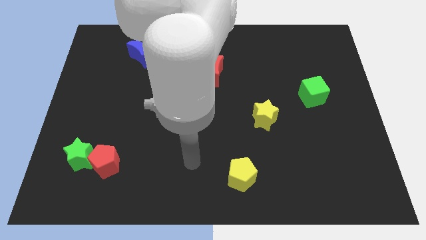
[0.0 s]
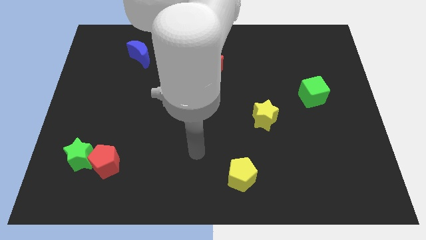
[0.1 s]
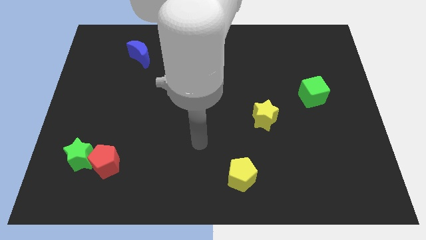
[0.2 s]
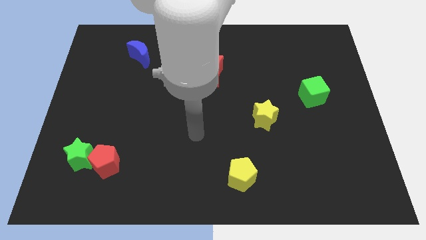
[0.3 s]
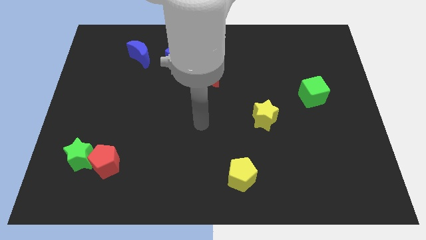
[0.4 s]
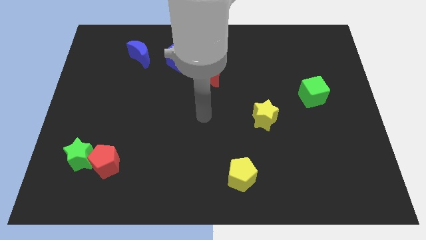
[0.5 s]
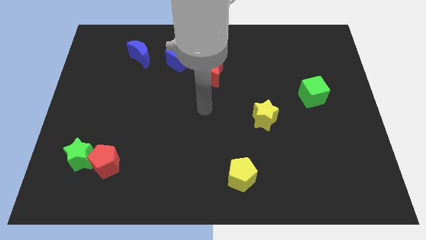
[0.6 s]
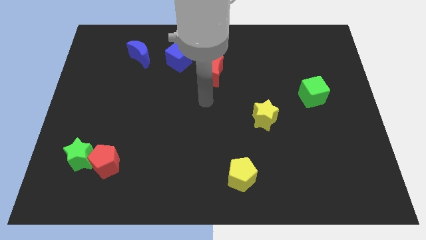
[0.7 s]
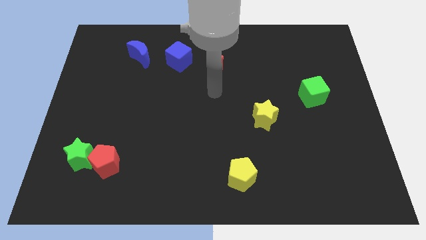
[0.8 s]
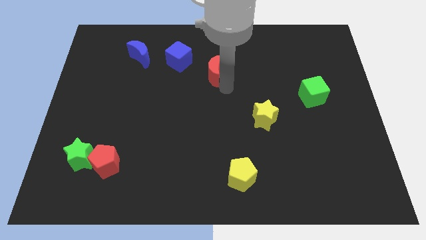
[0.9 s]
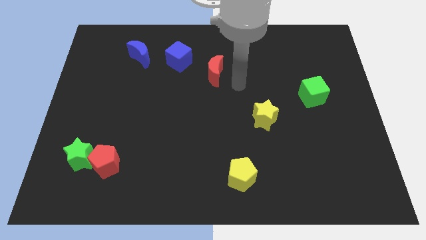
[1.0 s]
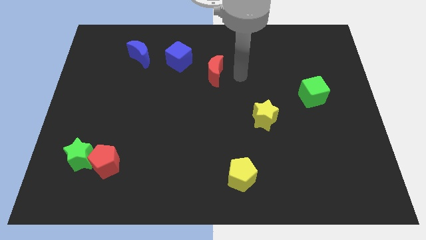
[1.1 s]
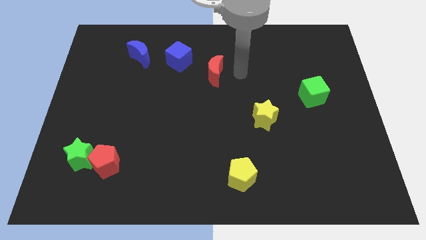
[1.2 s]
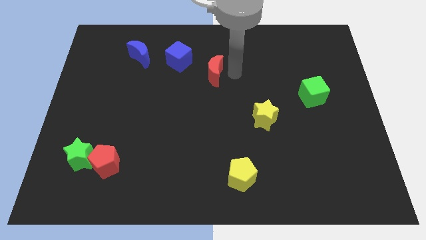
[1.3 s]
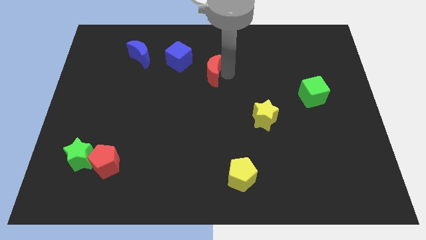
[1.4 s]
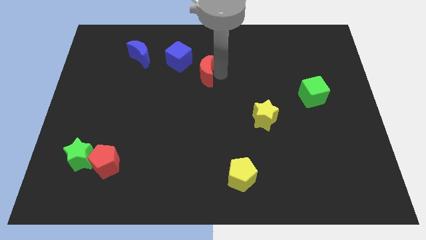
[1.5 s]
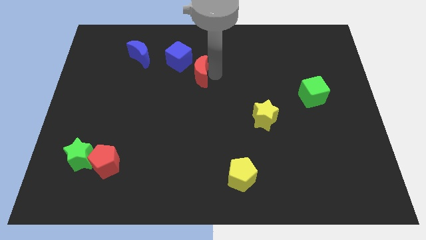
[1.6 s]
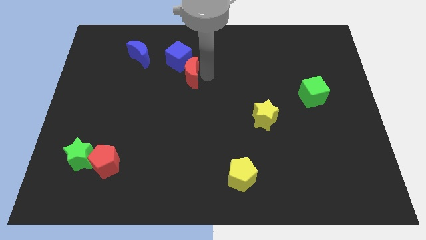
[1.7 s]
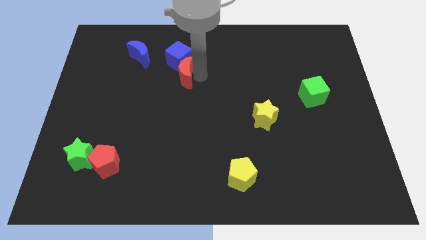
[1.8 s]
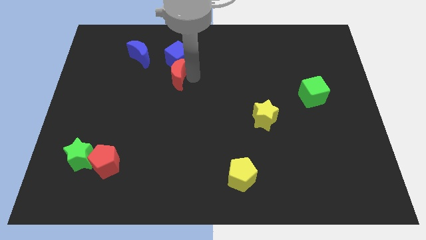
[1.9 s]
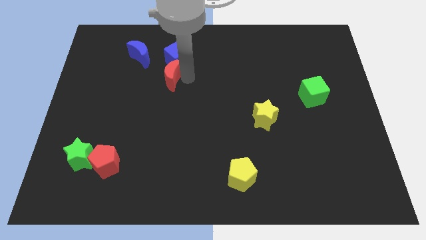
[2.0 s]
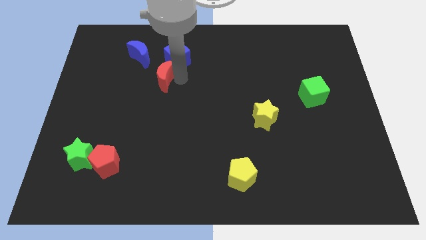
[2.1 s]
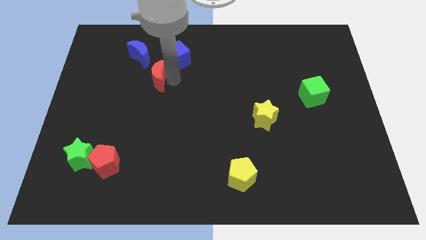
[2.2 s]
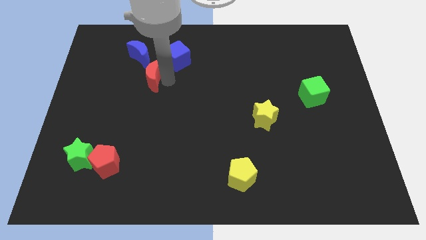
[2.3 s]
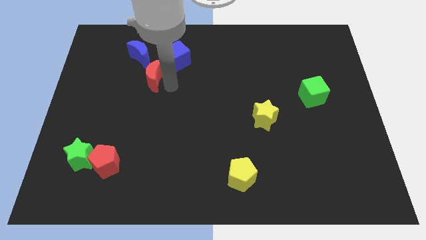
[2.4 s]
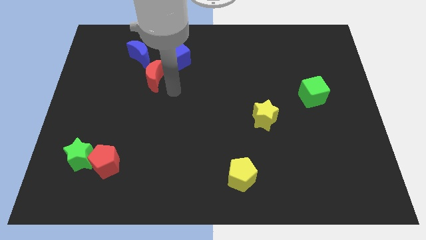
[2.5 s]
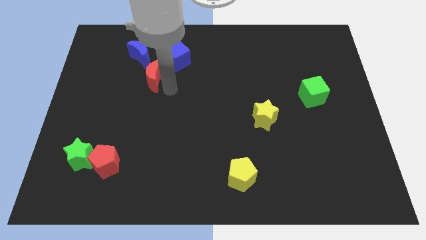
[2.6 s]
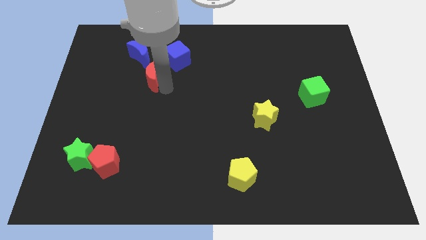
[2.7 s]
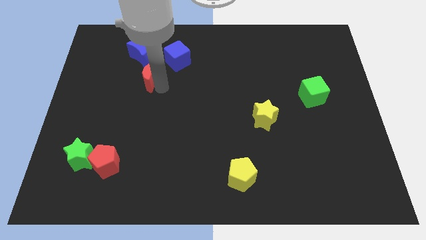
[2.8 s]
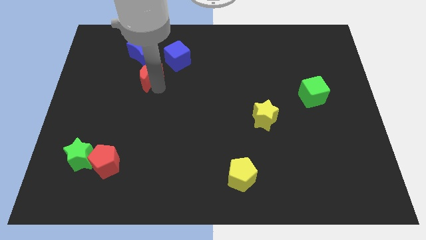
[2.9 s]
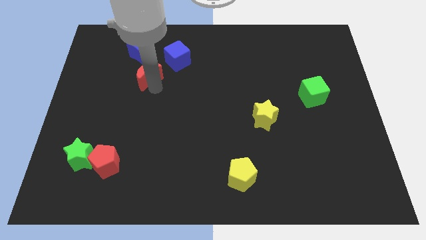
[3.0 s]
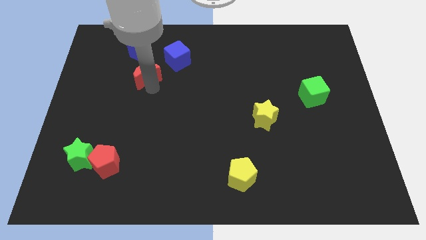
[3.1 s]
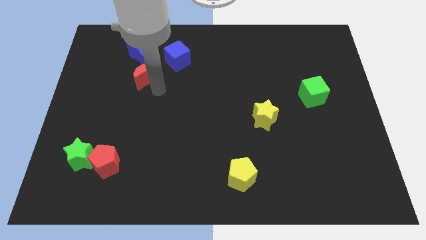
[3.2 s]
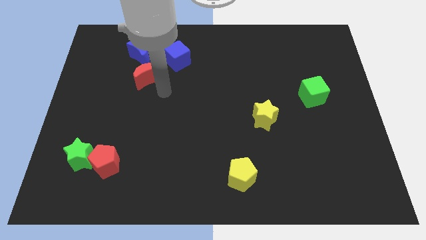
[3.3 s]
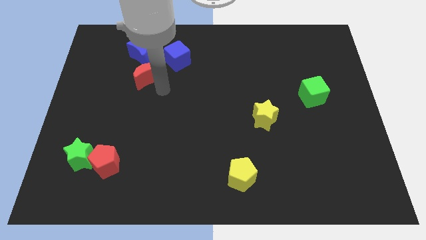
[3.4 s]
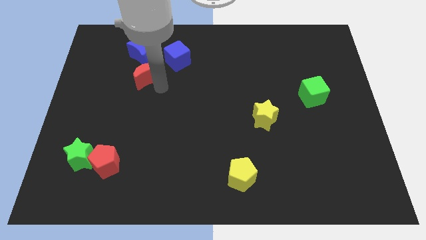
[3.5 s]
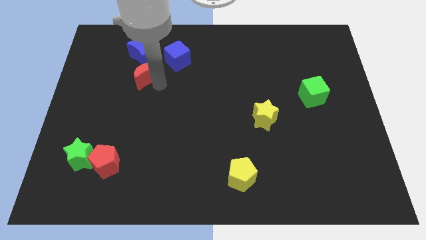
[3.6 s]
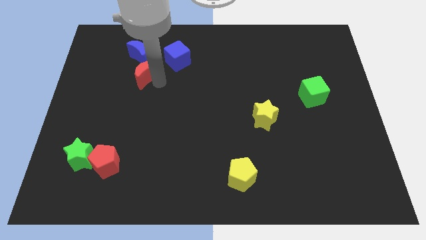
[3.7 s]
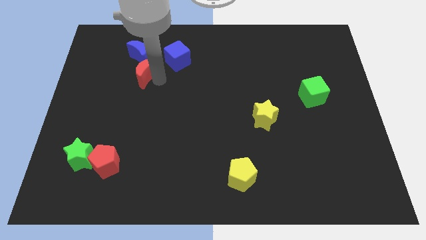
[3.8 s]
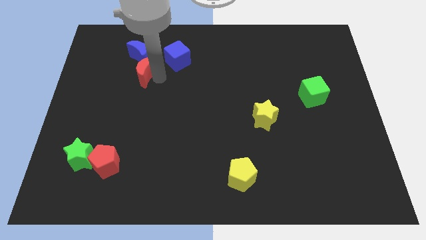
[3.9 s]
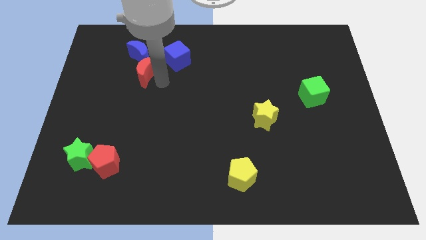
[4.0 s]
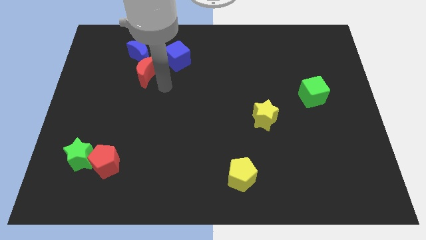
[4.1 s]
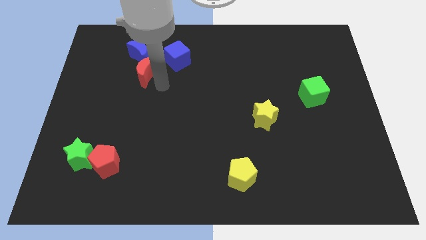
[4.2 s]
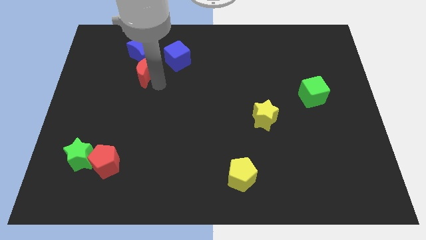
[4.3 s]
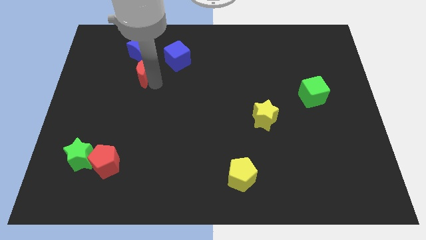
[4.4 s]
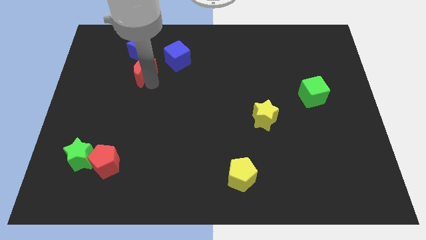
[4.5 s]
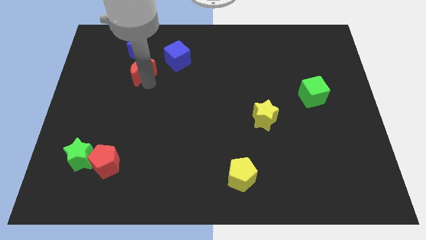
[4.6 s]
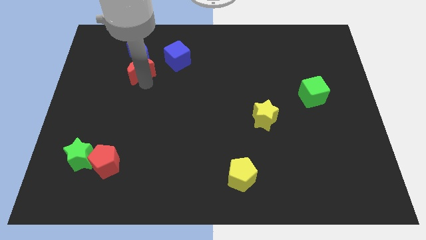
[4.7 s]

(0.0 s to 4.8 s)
slide the red moon just left of the blue cube

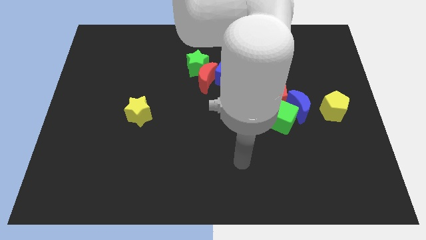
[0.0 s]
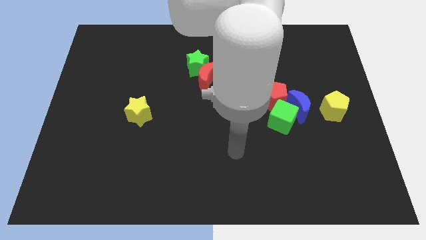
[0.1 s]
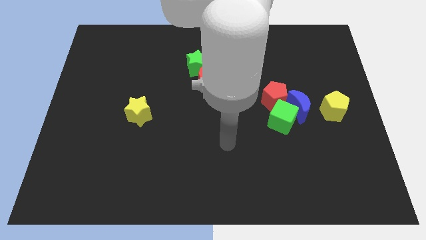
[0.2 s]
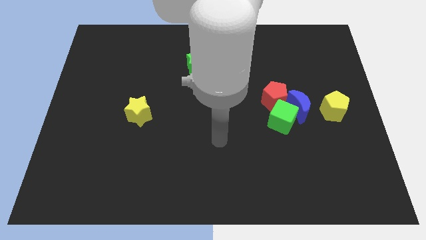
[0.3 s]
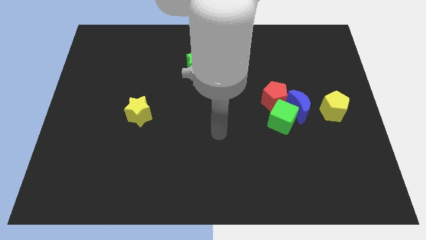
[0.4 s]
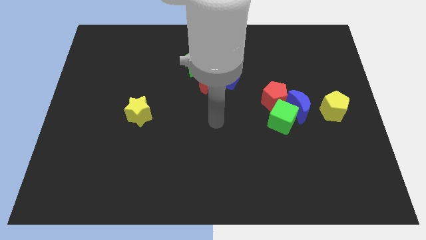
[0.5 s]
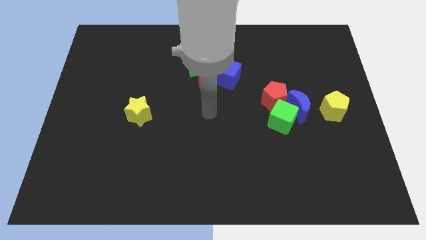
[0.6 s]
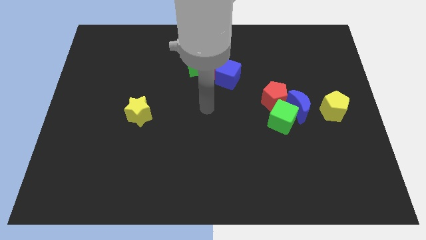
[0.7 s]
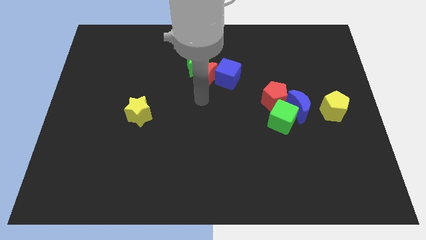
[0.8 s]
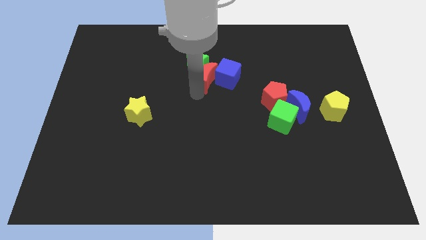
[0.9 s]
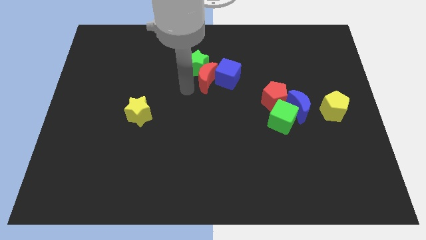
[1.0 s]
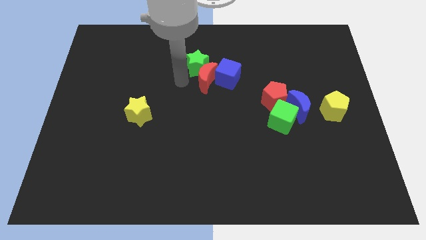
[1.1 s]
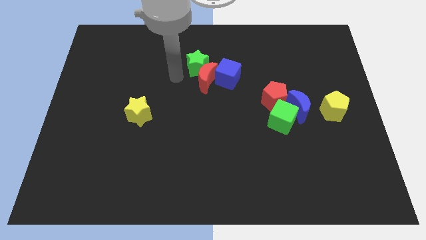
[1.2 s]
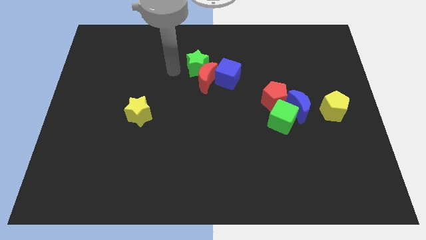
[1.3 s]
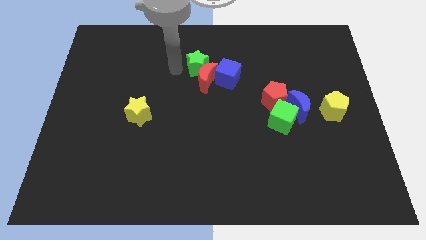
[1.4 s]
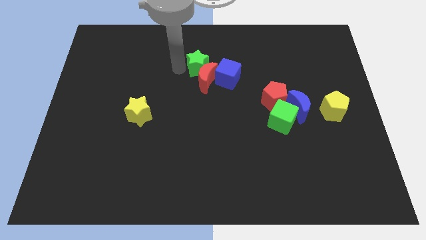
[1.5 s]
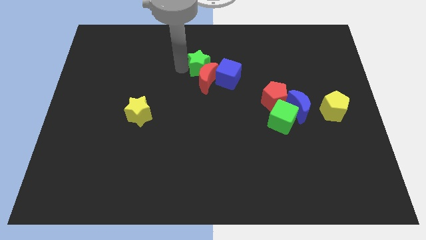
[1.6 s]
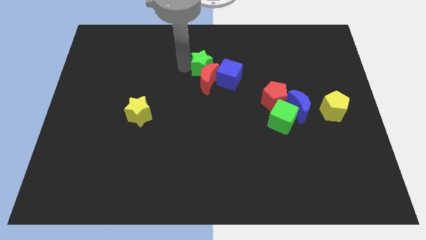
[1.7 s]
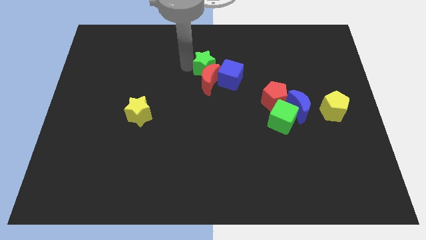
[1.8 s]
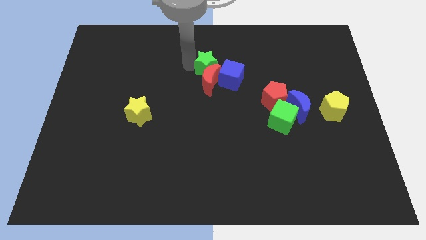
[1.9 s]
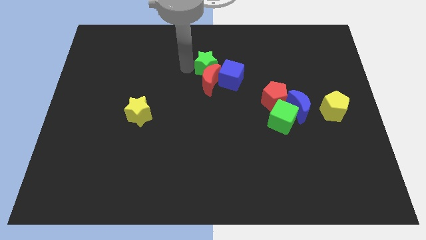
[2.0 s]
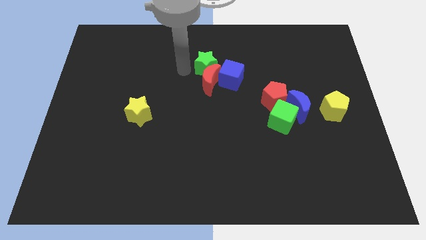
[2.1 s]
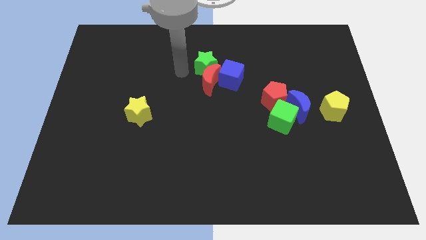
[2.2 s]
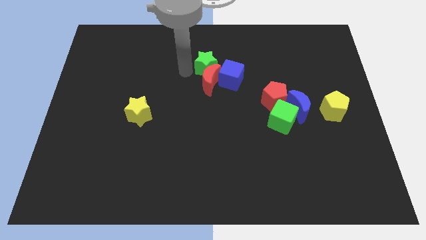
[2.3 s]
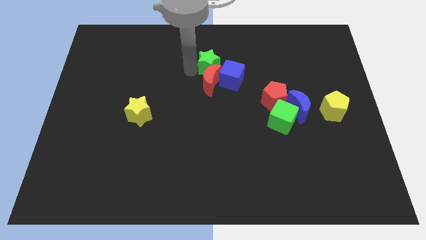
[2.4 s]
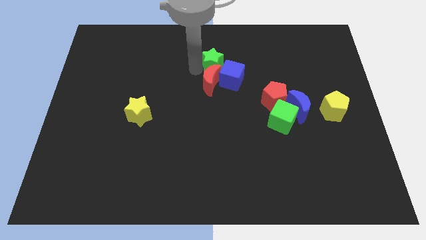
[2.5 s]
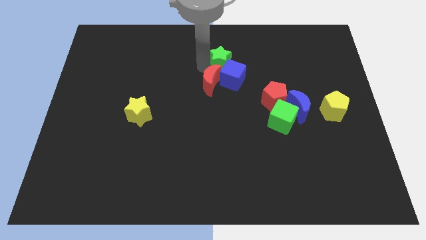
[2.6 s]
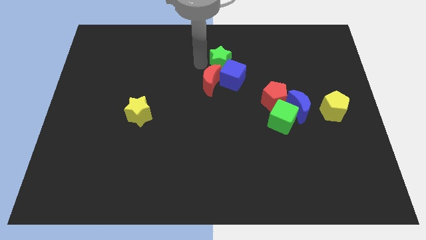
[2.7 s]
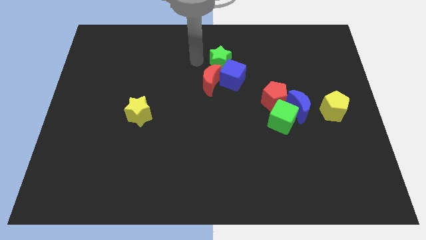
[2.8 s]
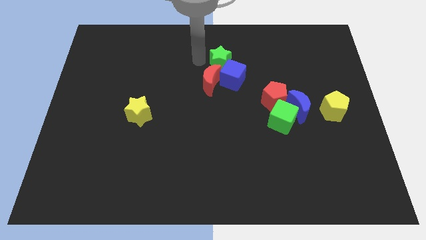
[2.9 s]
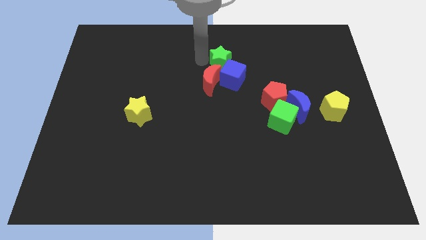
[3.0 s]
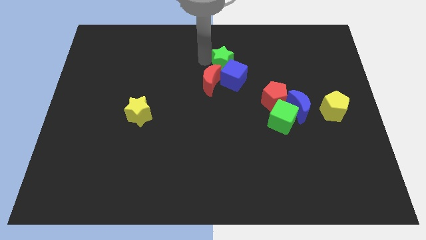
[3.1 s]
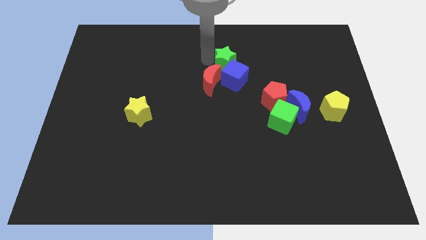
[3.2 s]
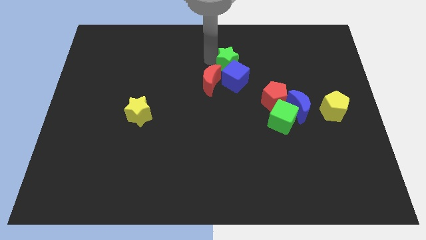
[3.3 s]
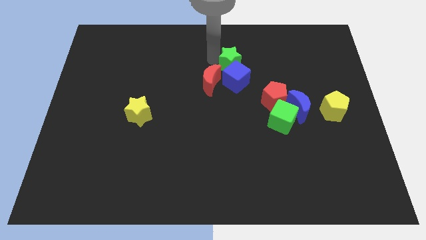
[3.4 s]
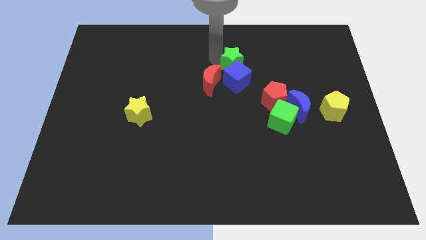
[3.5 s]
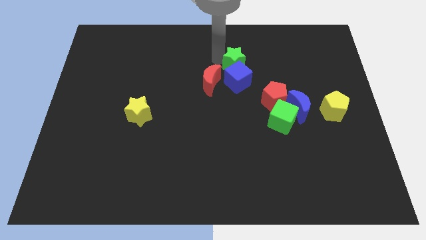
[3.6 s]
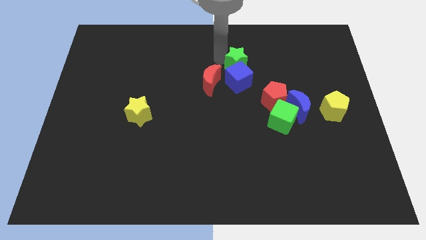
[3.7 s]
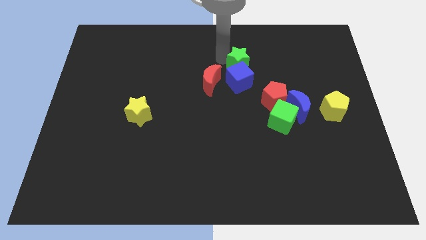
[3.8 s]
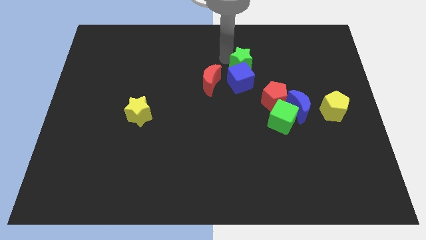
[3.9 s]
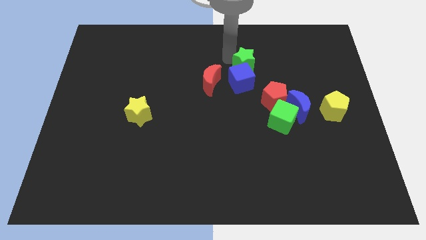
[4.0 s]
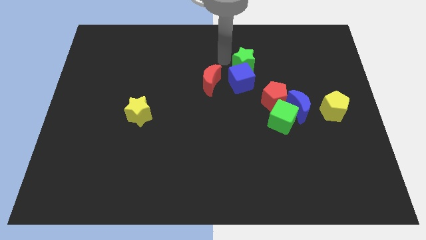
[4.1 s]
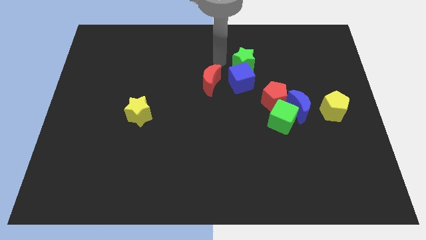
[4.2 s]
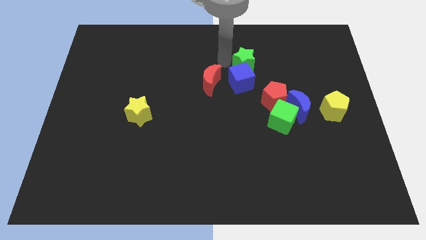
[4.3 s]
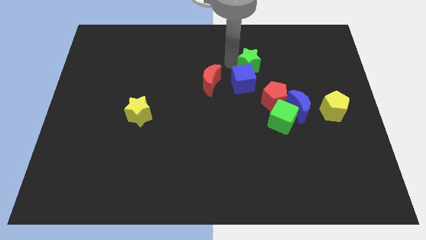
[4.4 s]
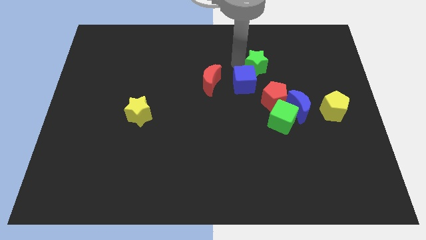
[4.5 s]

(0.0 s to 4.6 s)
slide the green star to the top of the red pentagon
